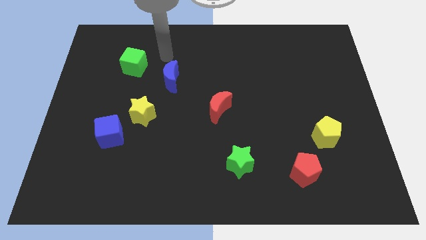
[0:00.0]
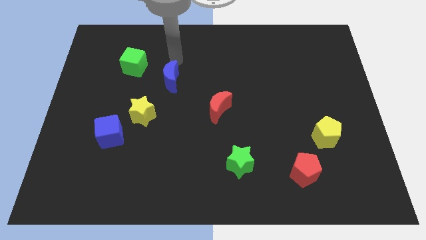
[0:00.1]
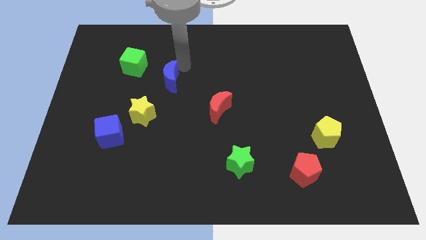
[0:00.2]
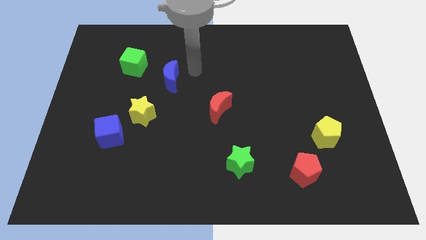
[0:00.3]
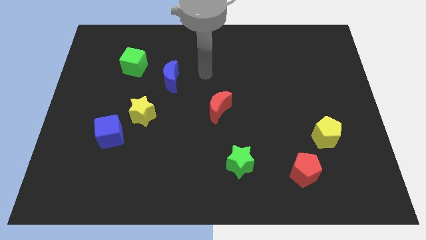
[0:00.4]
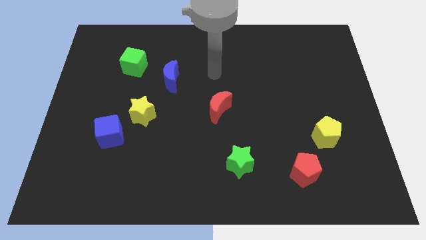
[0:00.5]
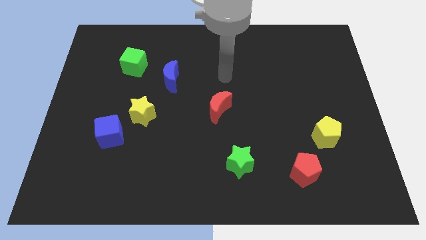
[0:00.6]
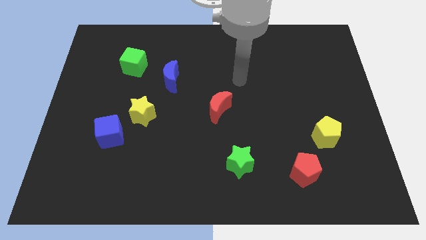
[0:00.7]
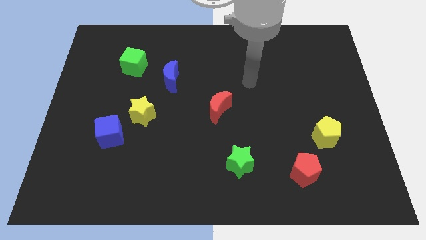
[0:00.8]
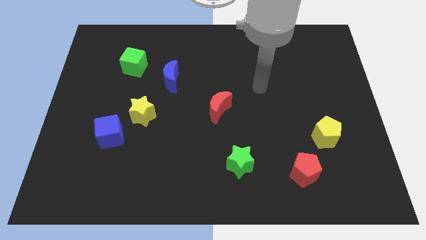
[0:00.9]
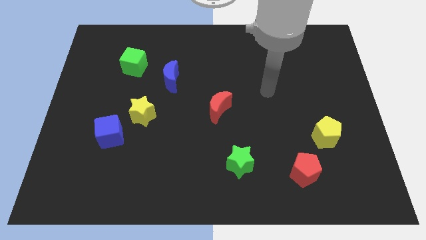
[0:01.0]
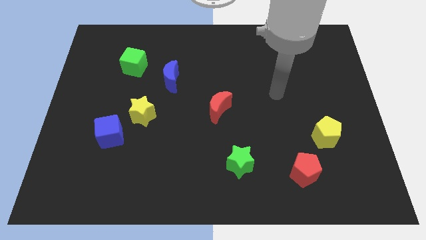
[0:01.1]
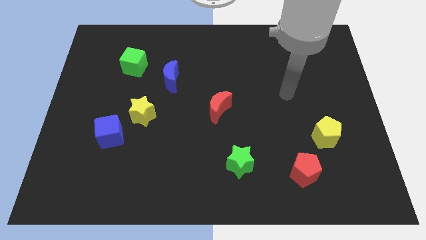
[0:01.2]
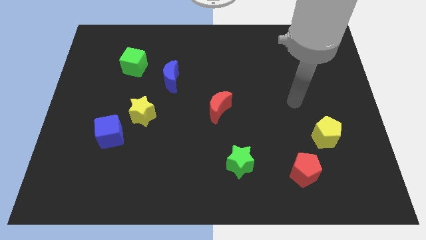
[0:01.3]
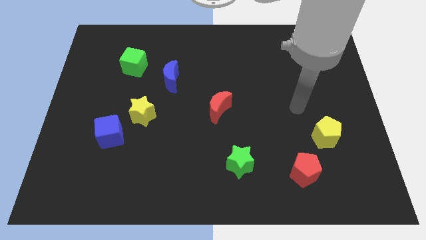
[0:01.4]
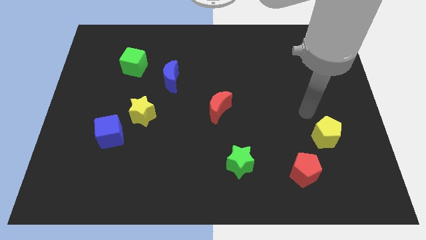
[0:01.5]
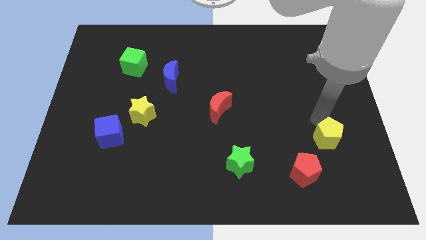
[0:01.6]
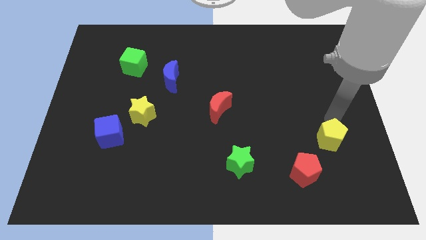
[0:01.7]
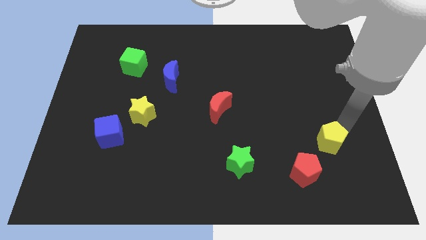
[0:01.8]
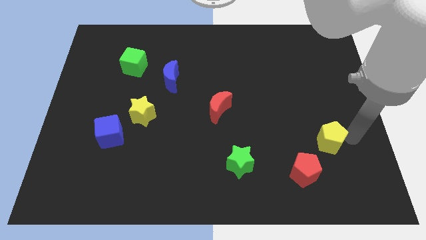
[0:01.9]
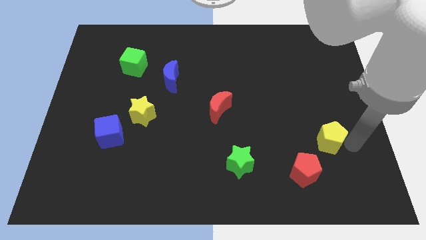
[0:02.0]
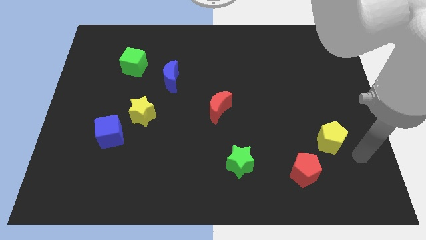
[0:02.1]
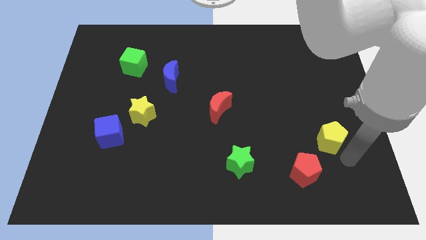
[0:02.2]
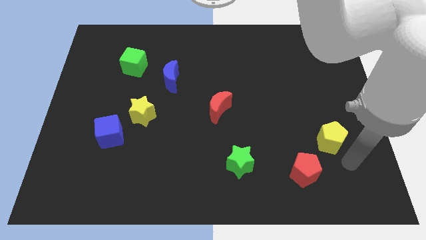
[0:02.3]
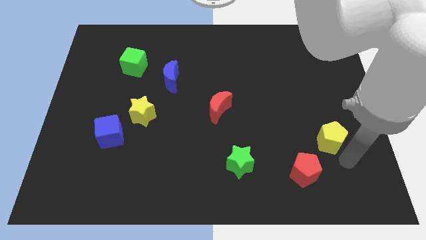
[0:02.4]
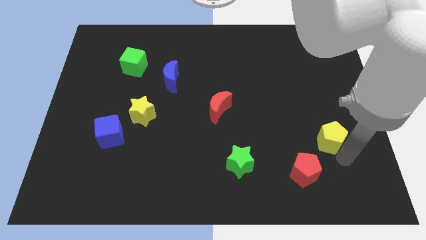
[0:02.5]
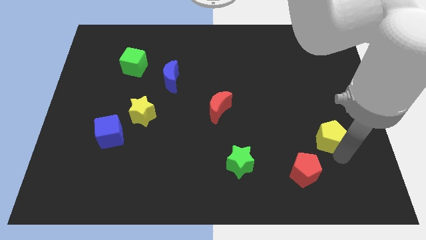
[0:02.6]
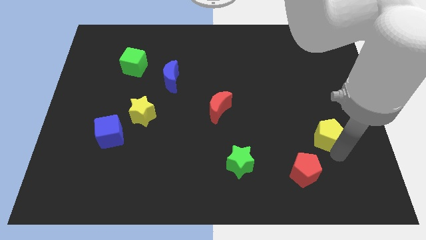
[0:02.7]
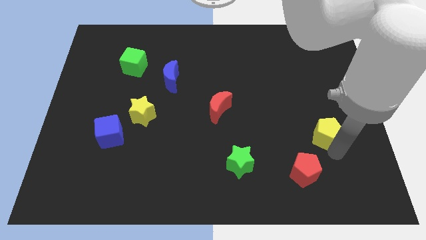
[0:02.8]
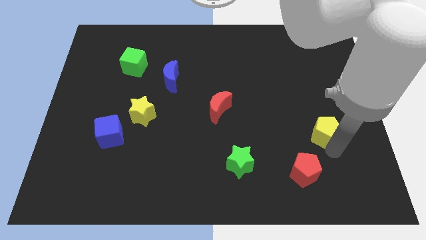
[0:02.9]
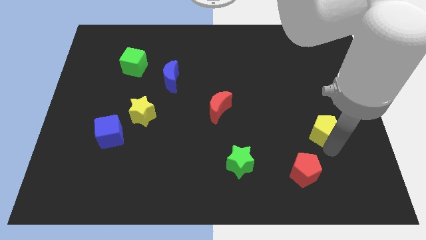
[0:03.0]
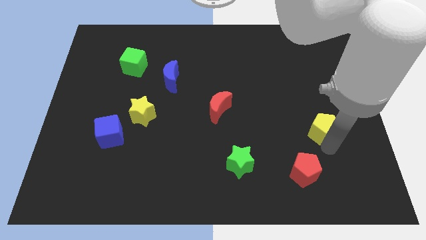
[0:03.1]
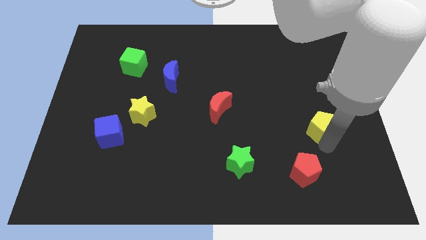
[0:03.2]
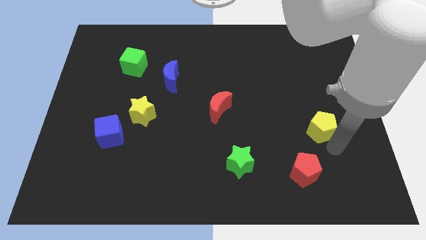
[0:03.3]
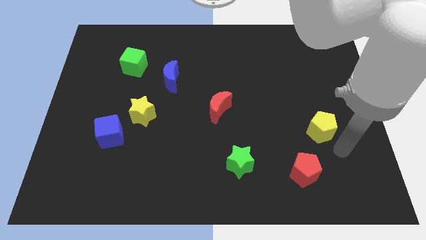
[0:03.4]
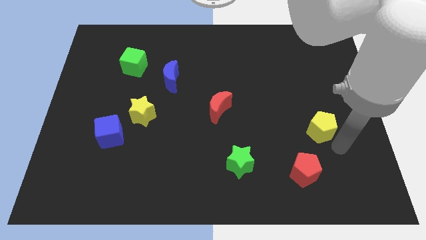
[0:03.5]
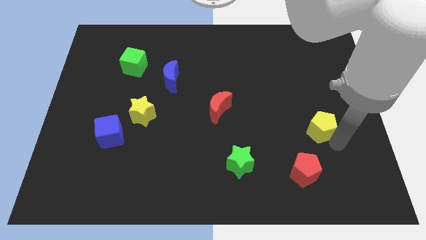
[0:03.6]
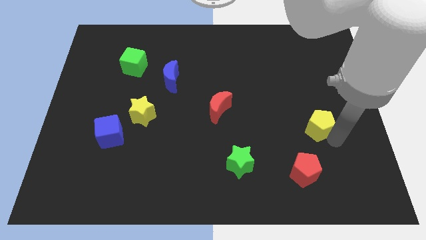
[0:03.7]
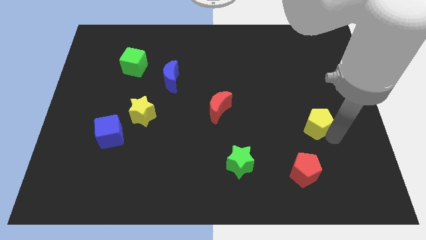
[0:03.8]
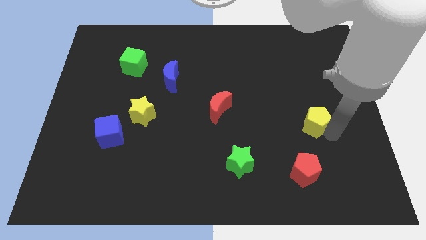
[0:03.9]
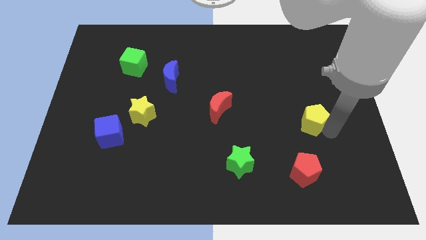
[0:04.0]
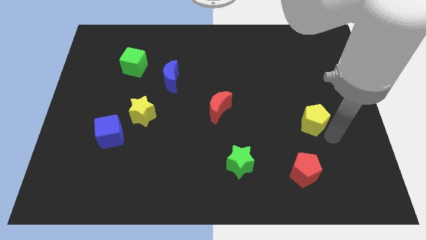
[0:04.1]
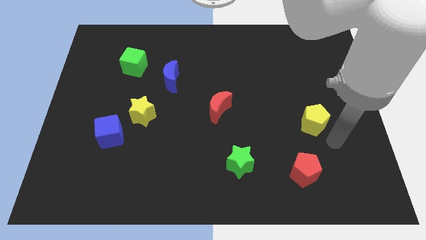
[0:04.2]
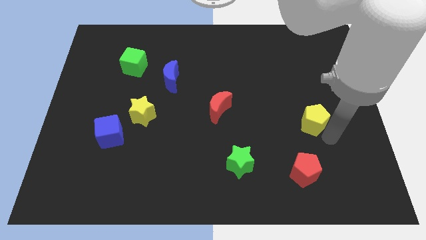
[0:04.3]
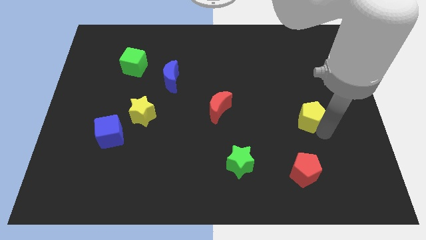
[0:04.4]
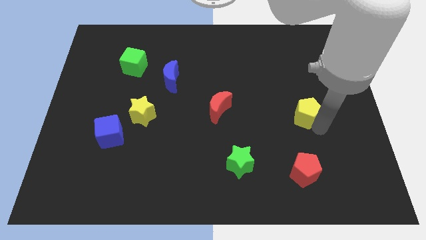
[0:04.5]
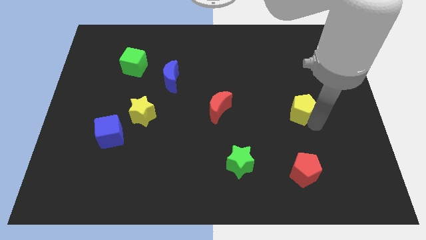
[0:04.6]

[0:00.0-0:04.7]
push the yellow pentagon somewhat up and then to the left

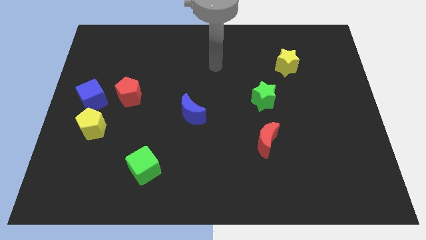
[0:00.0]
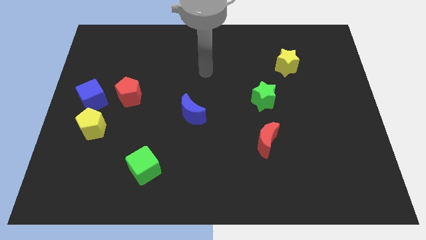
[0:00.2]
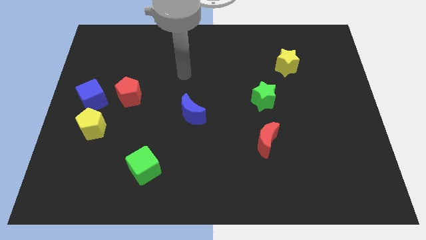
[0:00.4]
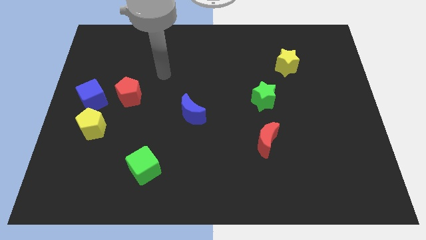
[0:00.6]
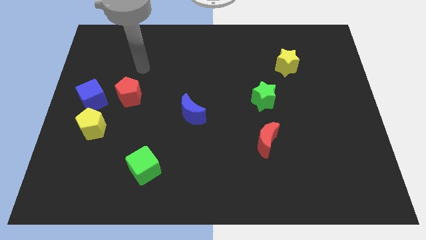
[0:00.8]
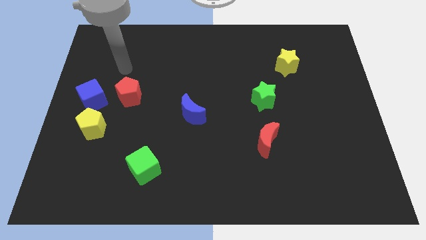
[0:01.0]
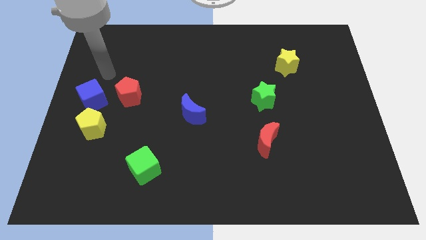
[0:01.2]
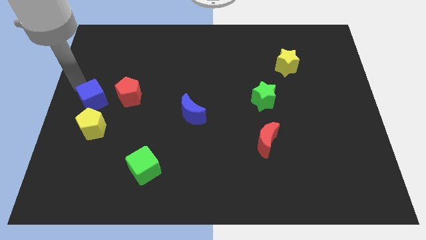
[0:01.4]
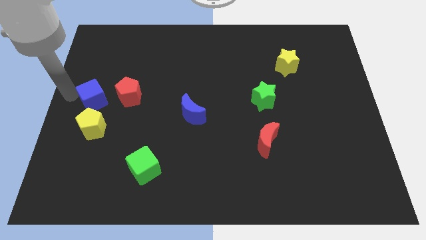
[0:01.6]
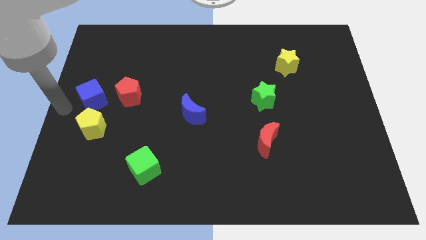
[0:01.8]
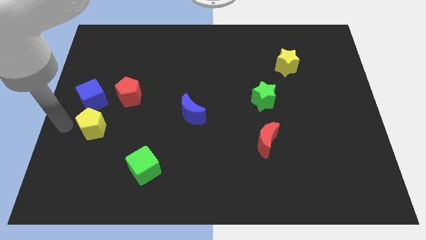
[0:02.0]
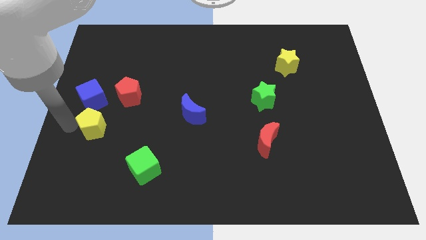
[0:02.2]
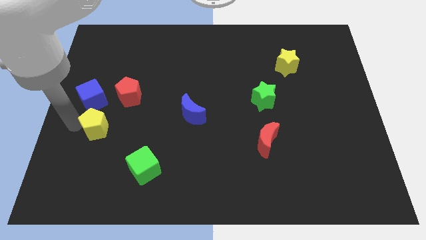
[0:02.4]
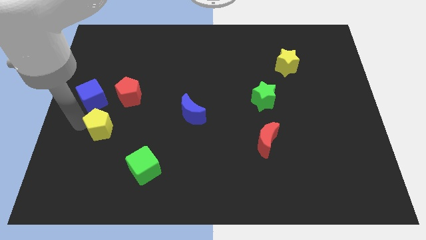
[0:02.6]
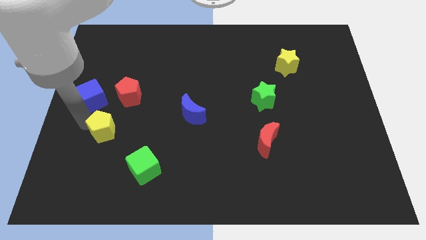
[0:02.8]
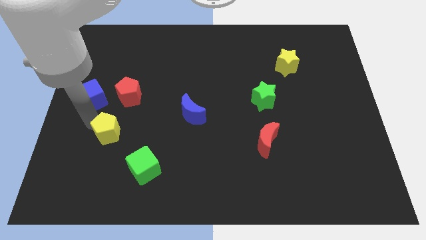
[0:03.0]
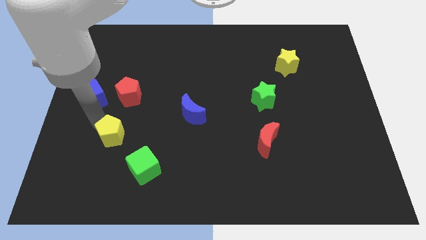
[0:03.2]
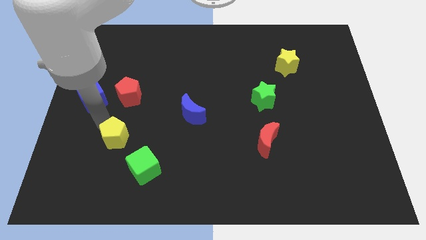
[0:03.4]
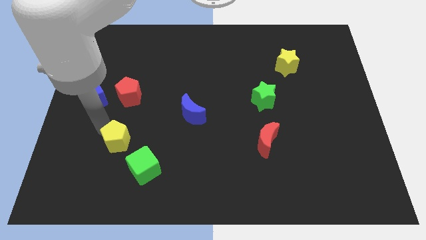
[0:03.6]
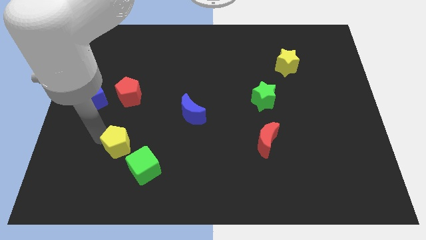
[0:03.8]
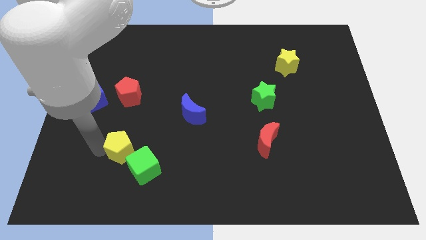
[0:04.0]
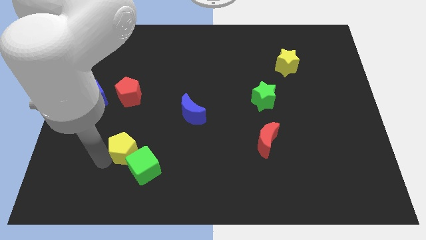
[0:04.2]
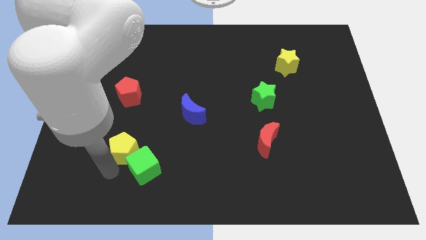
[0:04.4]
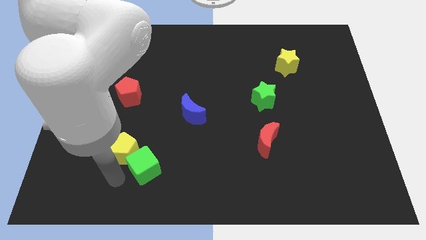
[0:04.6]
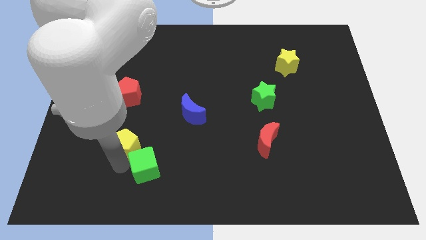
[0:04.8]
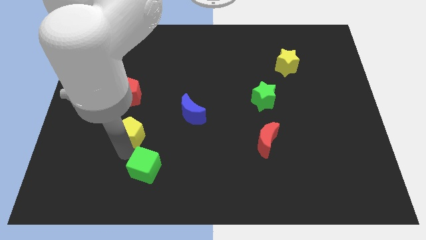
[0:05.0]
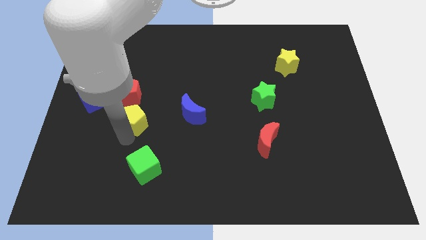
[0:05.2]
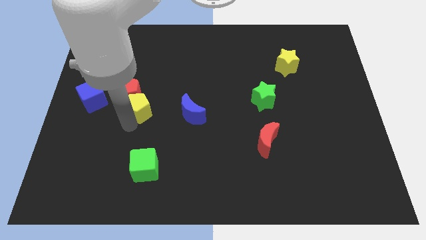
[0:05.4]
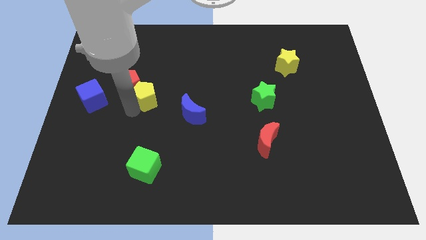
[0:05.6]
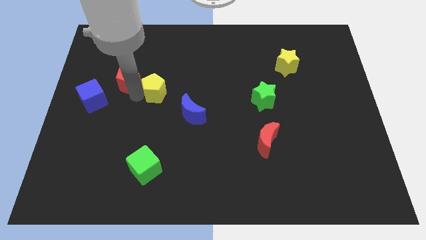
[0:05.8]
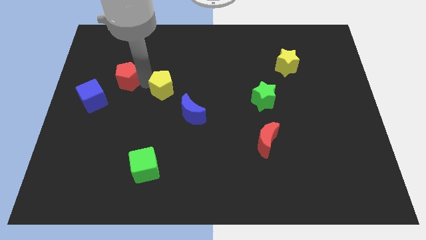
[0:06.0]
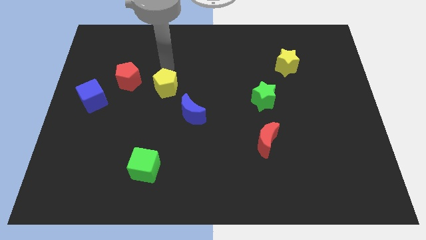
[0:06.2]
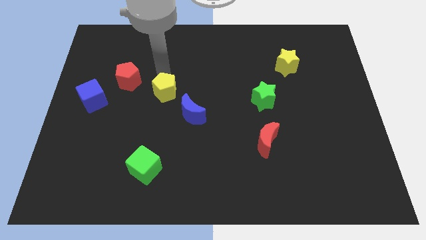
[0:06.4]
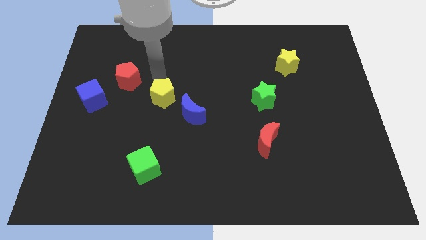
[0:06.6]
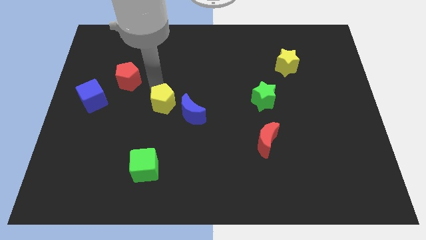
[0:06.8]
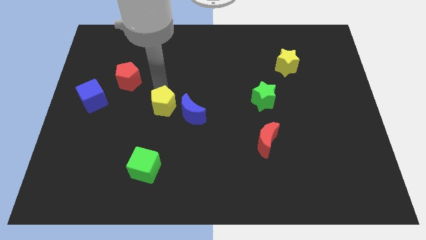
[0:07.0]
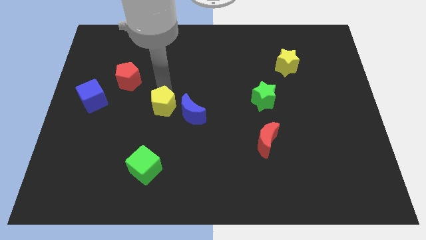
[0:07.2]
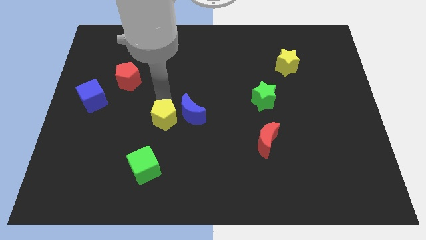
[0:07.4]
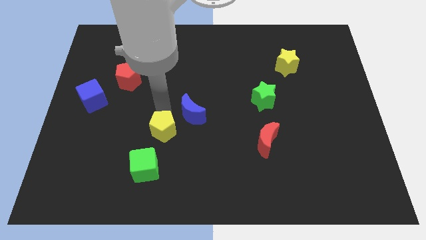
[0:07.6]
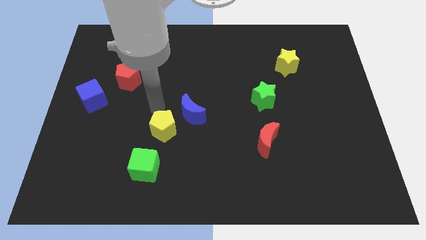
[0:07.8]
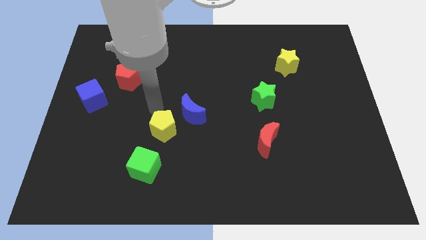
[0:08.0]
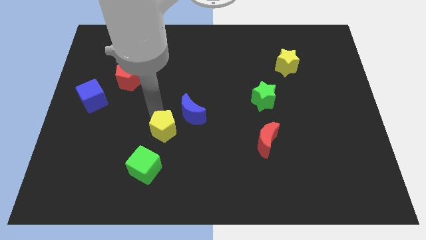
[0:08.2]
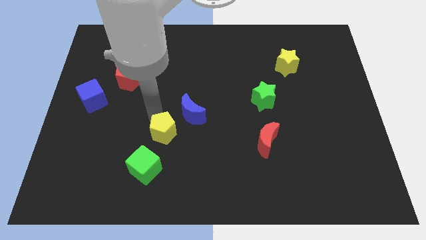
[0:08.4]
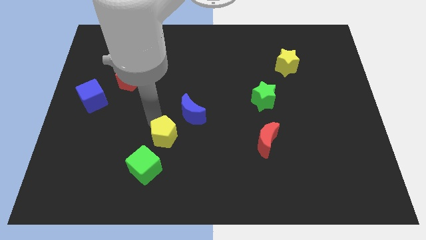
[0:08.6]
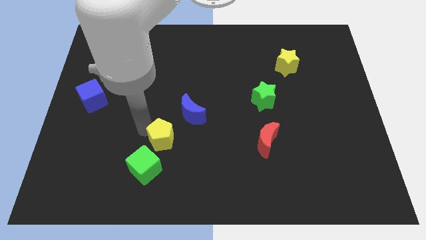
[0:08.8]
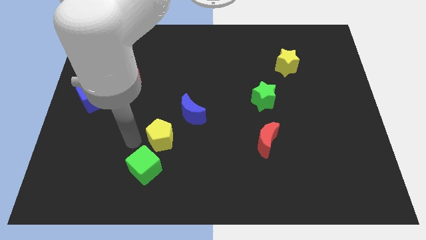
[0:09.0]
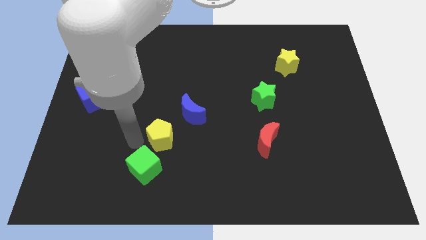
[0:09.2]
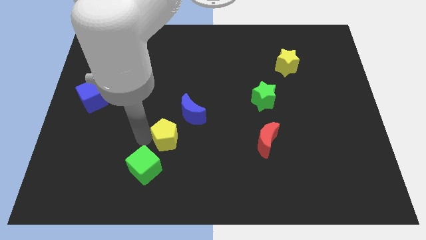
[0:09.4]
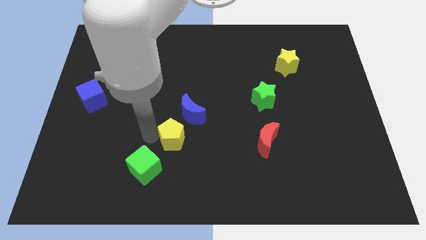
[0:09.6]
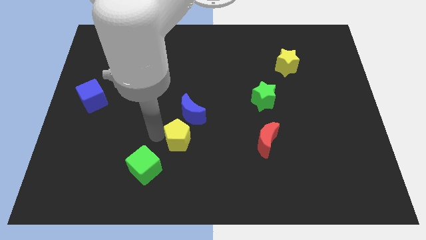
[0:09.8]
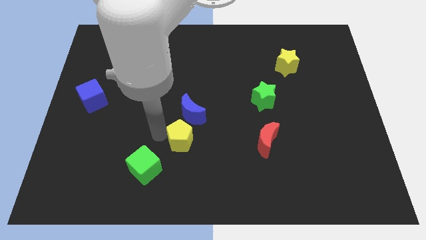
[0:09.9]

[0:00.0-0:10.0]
push the yellow pentagon to the right
